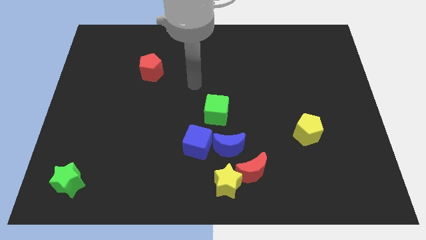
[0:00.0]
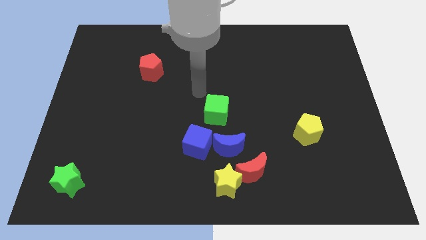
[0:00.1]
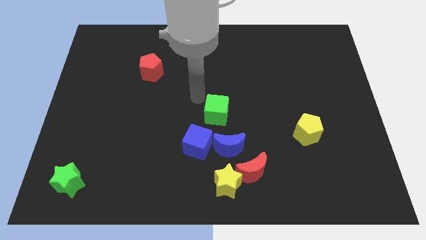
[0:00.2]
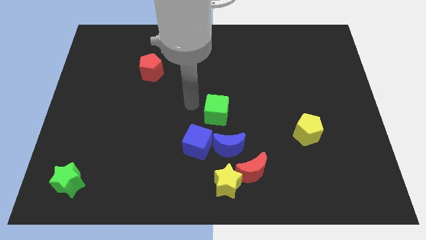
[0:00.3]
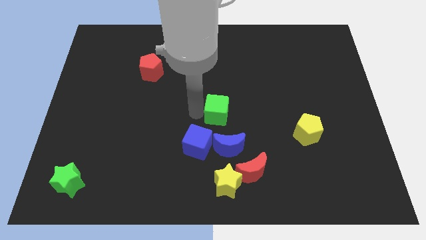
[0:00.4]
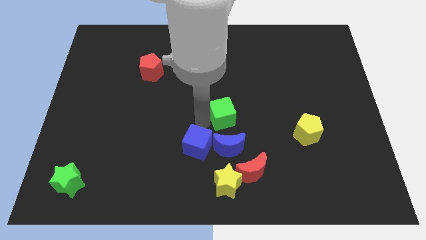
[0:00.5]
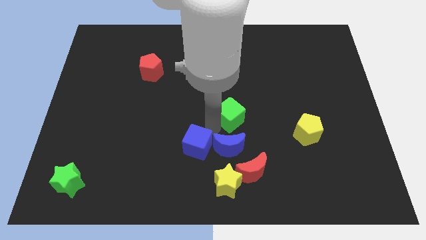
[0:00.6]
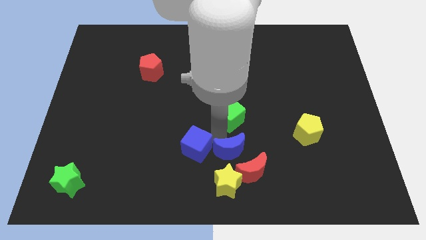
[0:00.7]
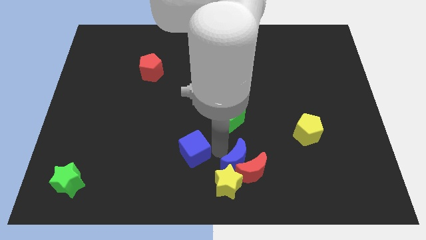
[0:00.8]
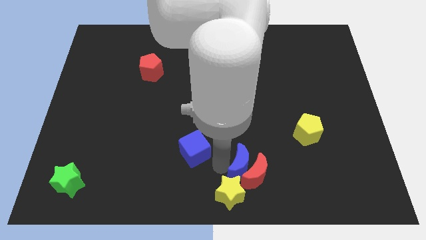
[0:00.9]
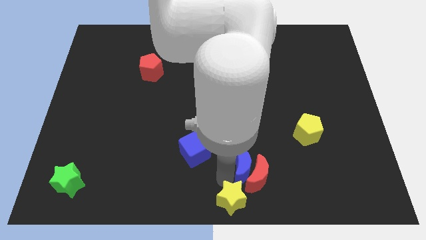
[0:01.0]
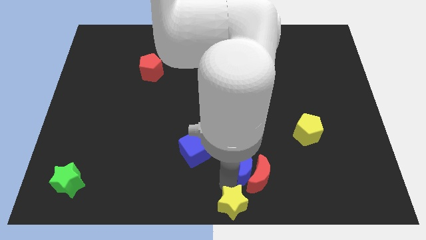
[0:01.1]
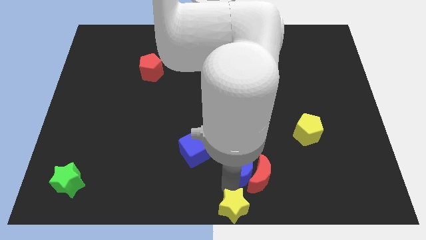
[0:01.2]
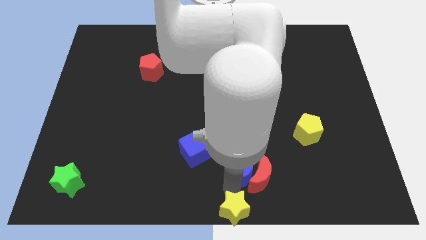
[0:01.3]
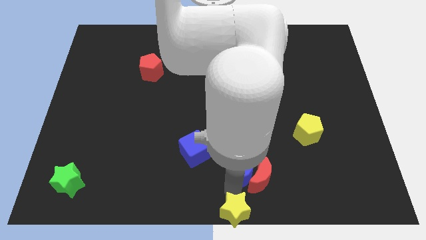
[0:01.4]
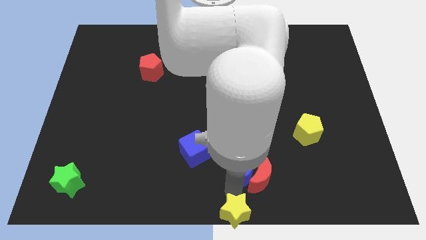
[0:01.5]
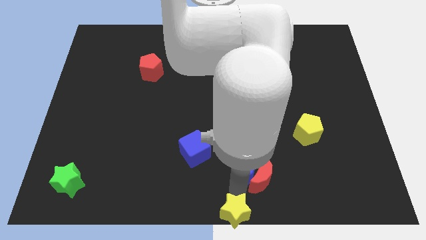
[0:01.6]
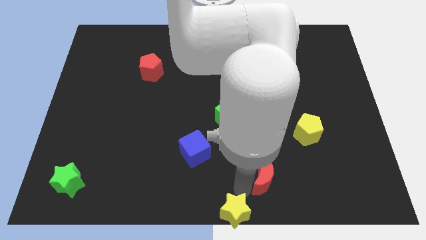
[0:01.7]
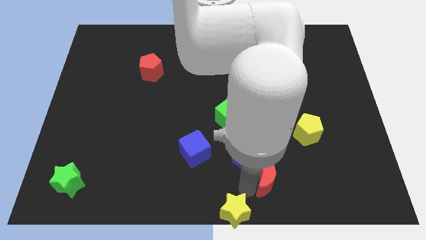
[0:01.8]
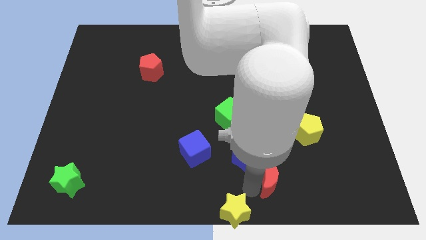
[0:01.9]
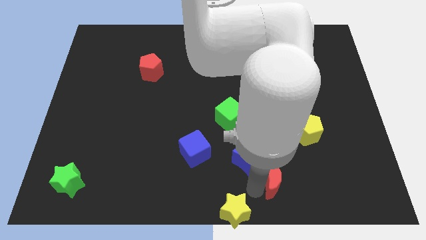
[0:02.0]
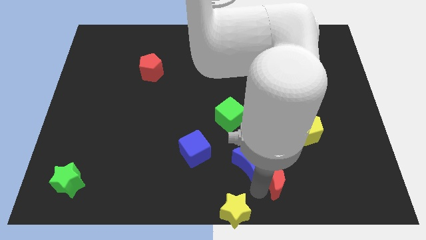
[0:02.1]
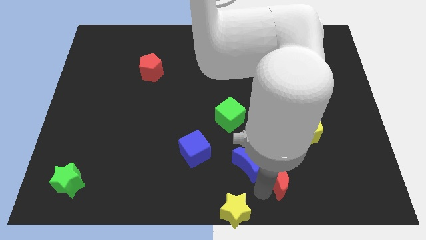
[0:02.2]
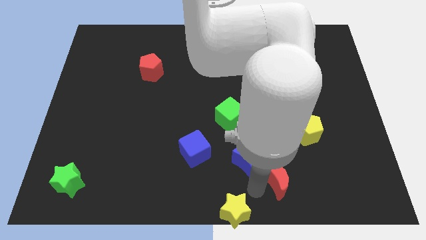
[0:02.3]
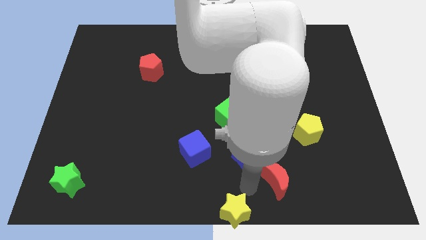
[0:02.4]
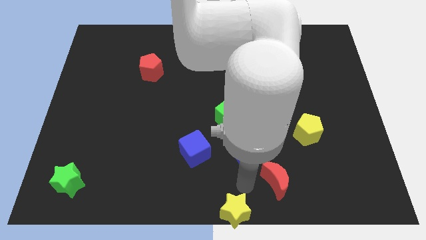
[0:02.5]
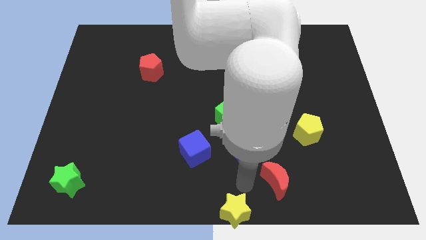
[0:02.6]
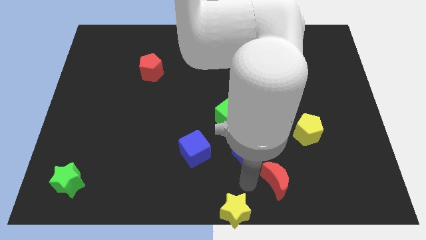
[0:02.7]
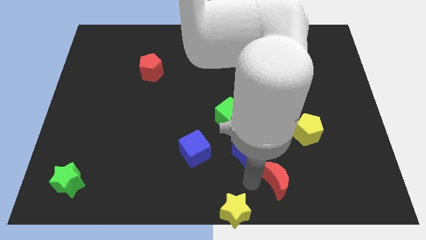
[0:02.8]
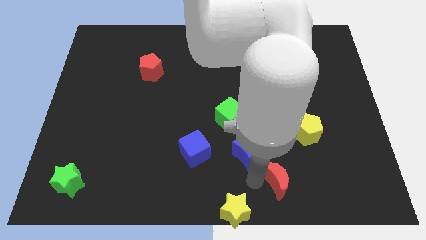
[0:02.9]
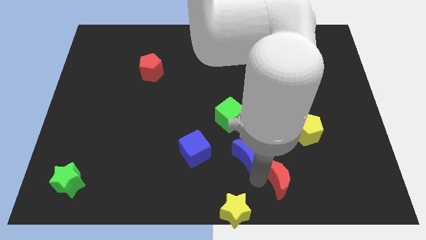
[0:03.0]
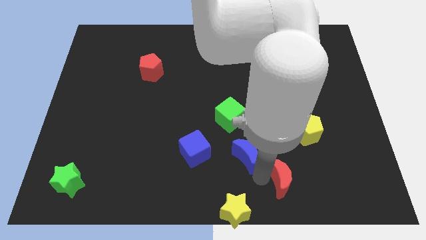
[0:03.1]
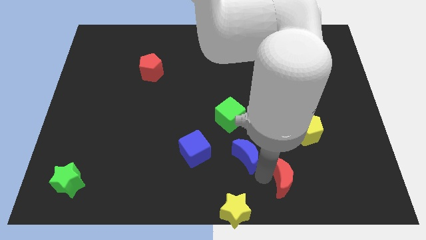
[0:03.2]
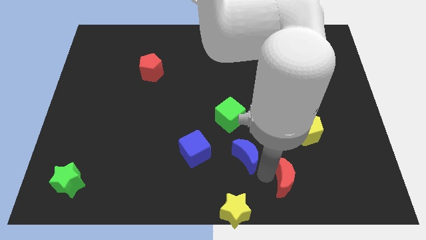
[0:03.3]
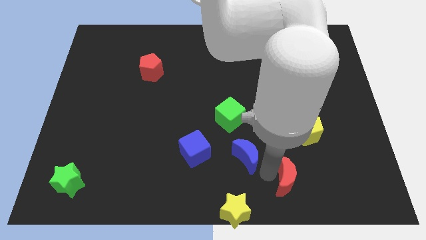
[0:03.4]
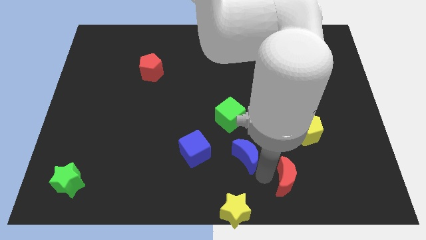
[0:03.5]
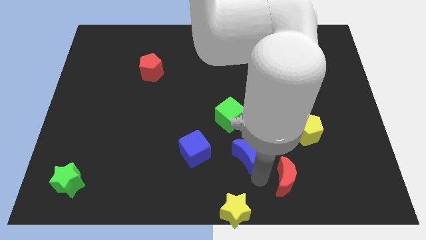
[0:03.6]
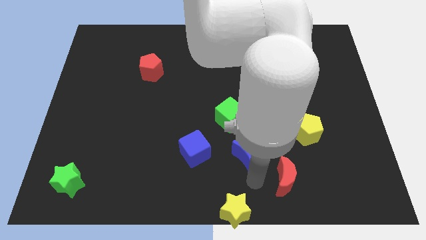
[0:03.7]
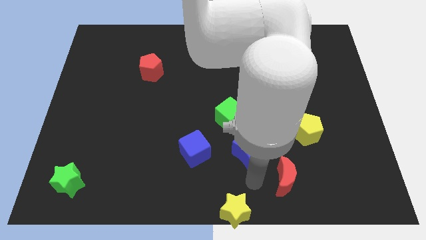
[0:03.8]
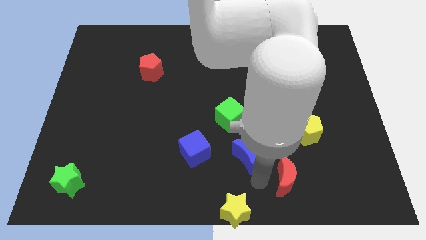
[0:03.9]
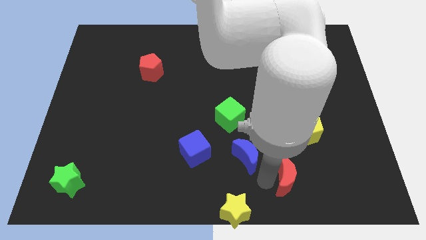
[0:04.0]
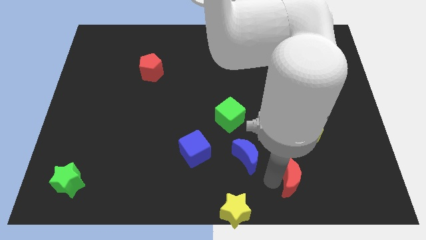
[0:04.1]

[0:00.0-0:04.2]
move the red moon away from the yellow star and blue moon

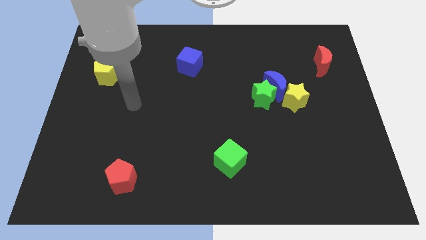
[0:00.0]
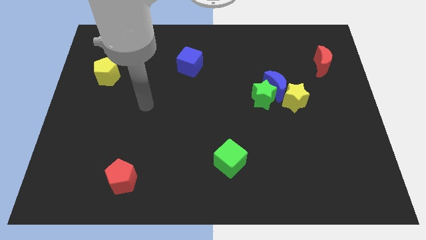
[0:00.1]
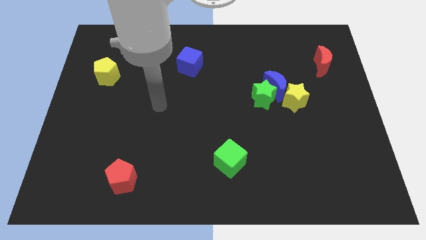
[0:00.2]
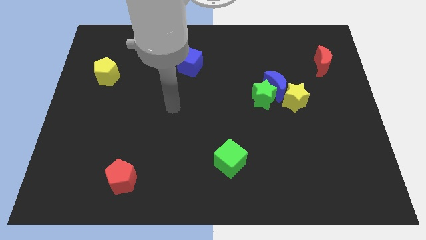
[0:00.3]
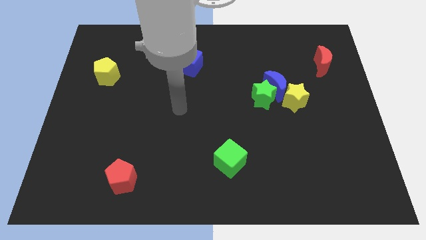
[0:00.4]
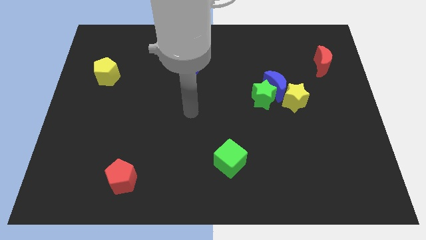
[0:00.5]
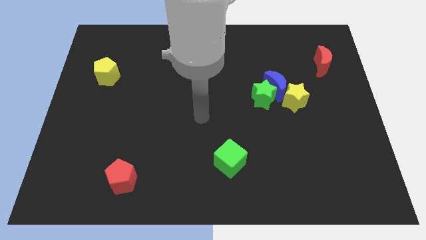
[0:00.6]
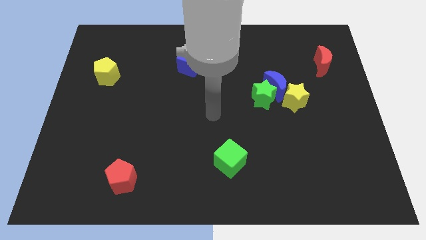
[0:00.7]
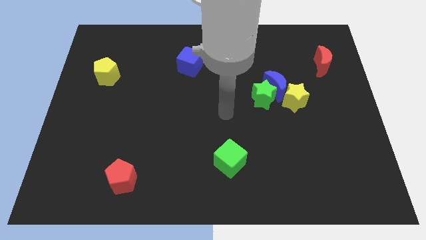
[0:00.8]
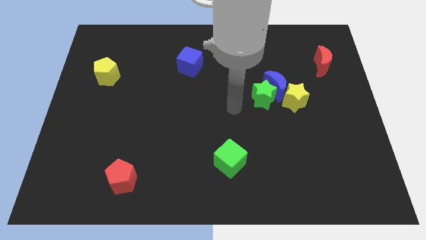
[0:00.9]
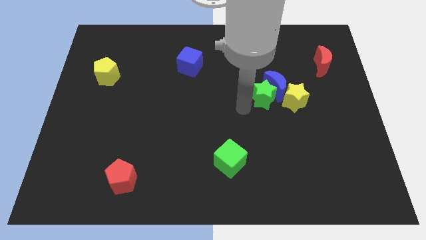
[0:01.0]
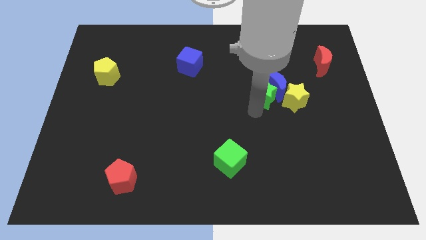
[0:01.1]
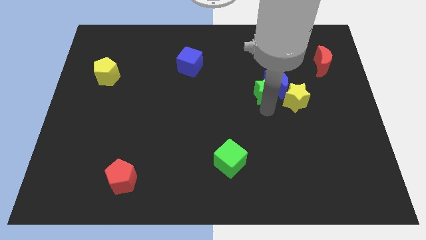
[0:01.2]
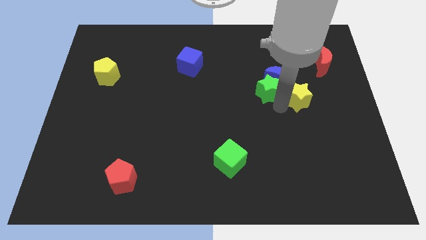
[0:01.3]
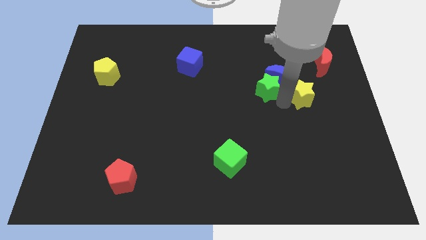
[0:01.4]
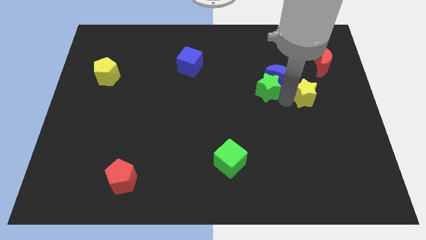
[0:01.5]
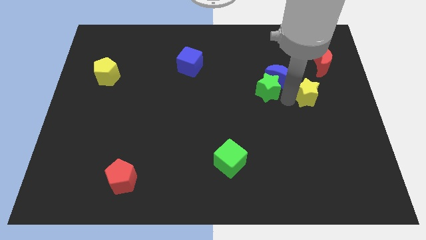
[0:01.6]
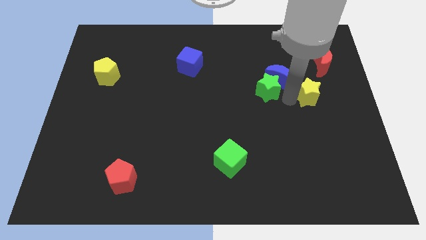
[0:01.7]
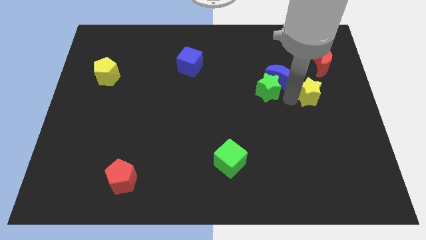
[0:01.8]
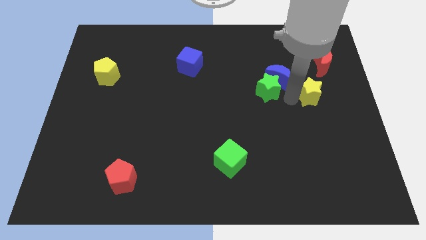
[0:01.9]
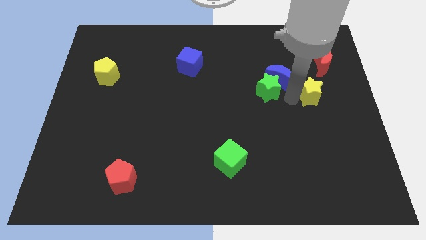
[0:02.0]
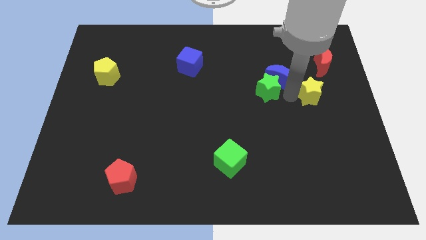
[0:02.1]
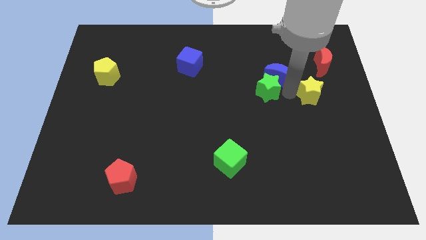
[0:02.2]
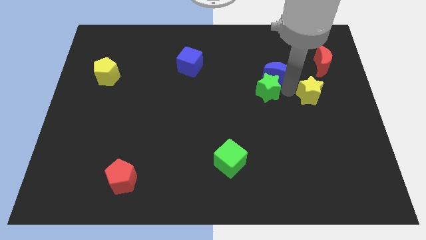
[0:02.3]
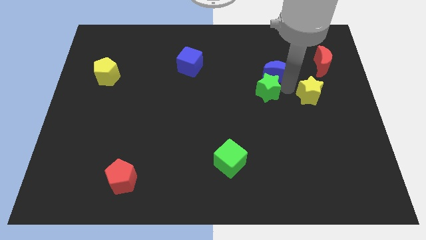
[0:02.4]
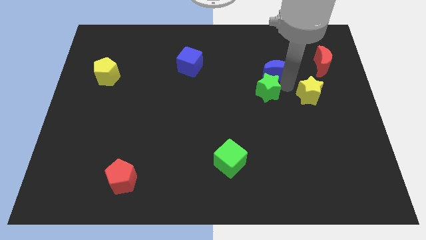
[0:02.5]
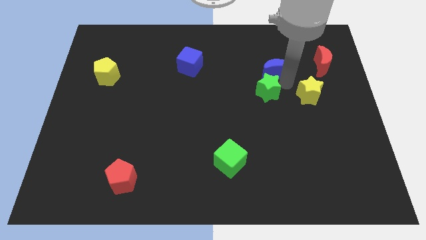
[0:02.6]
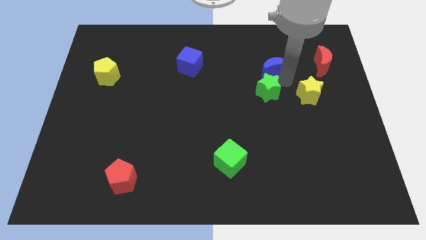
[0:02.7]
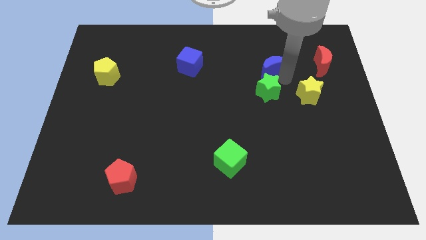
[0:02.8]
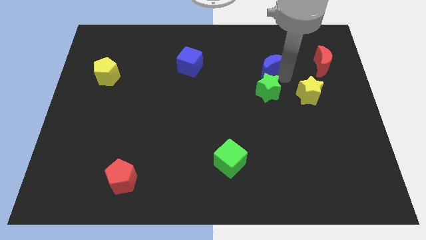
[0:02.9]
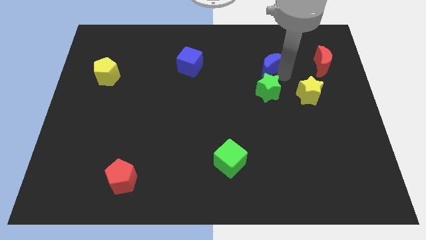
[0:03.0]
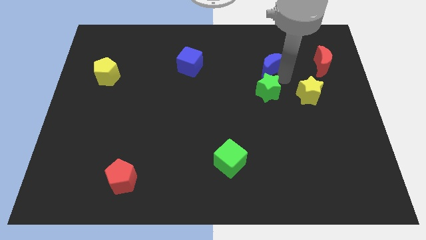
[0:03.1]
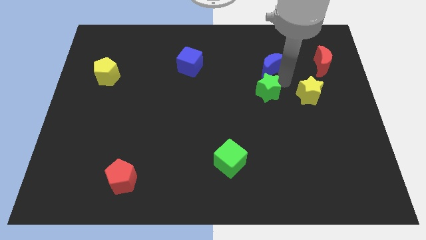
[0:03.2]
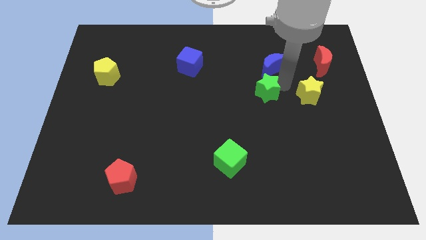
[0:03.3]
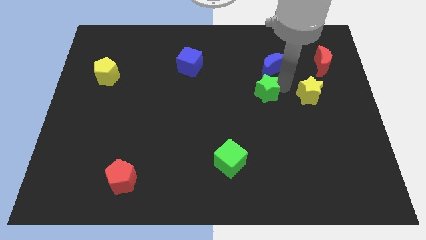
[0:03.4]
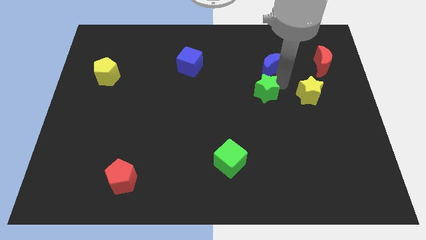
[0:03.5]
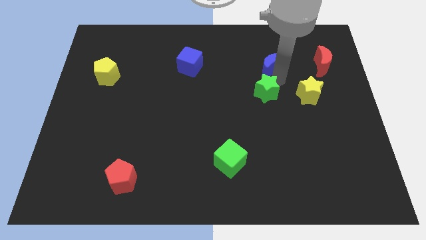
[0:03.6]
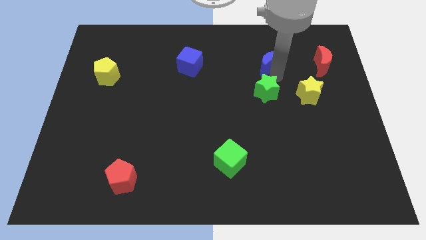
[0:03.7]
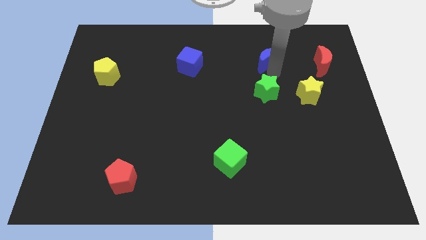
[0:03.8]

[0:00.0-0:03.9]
move the blue moon away from the green star and yellow star

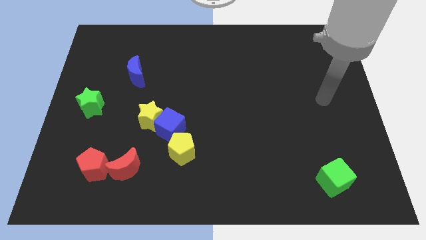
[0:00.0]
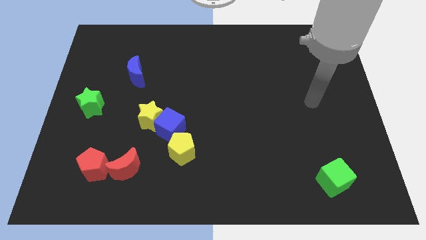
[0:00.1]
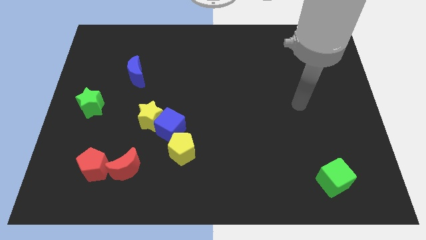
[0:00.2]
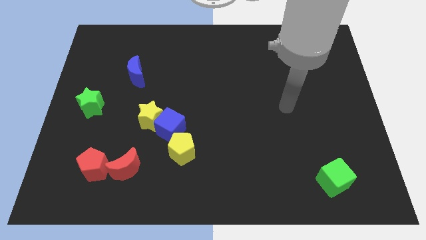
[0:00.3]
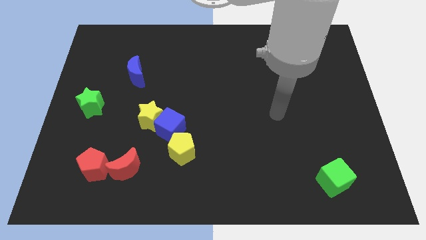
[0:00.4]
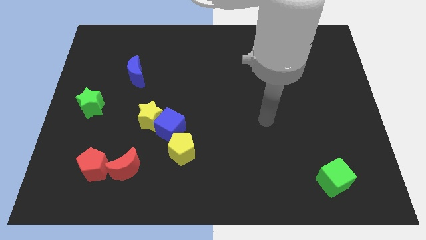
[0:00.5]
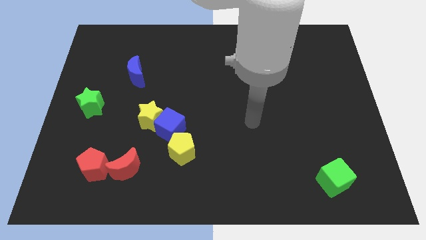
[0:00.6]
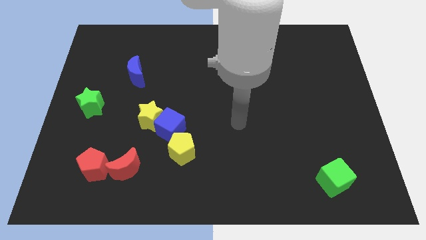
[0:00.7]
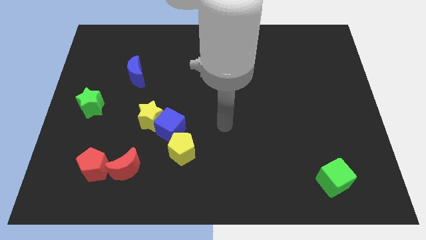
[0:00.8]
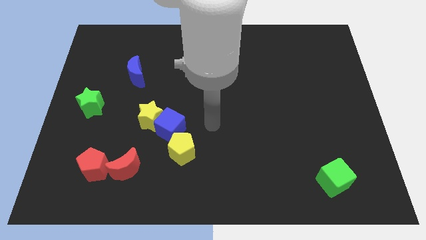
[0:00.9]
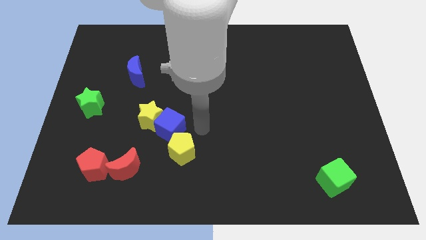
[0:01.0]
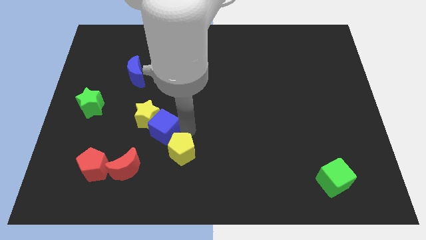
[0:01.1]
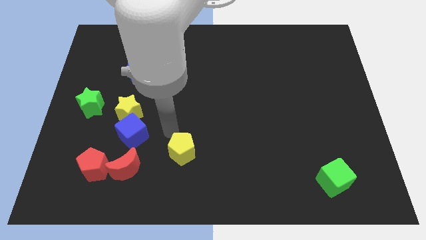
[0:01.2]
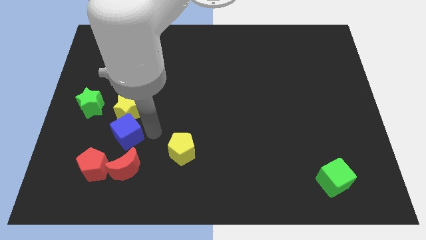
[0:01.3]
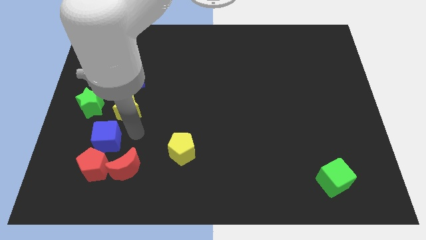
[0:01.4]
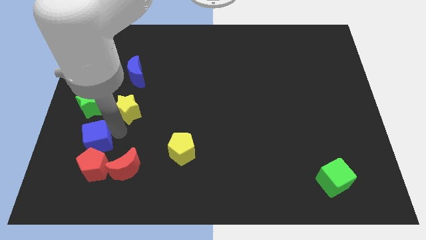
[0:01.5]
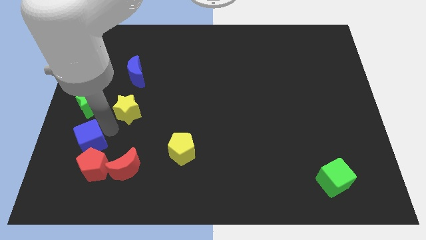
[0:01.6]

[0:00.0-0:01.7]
separate the yellow star from the blue cube
